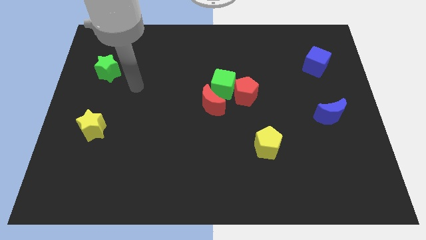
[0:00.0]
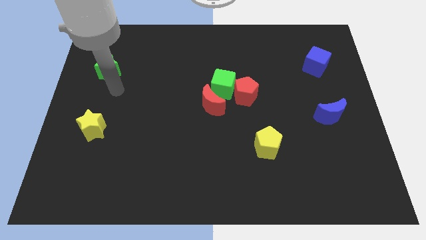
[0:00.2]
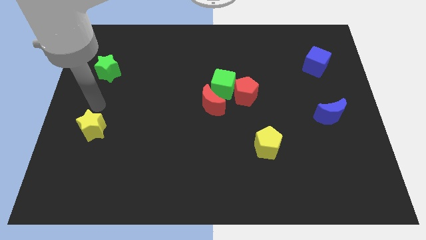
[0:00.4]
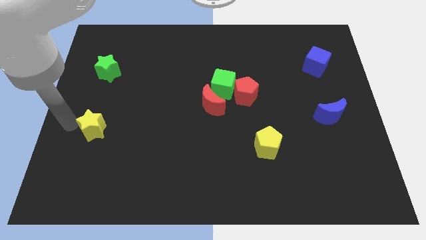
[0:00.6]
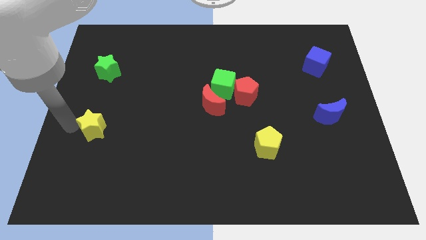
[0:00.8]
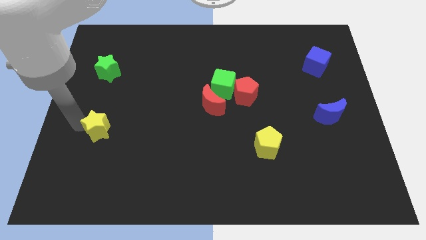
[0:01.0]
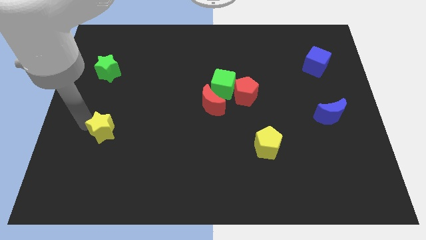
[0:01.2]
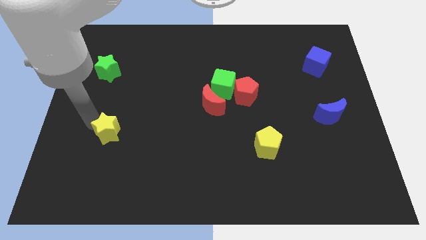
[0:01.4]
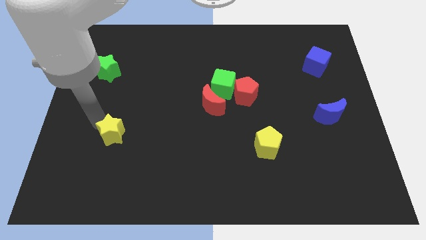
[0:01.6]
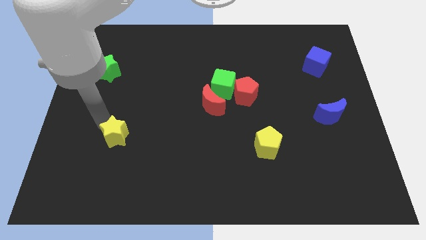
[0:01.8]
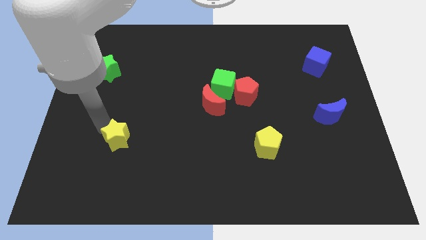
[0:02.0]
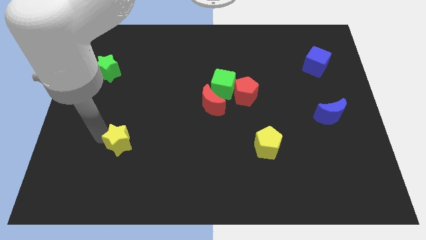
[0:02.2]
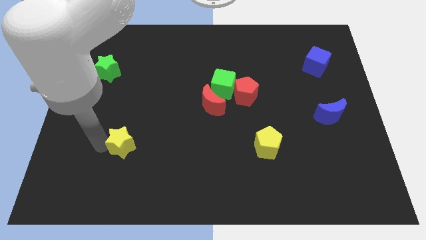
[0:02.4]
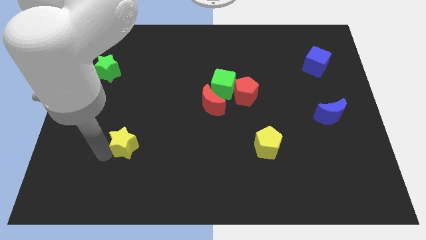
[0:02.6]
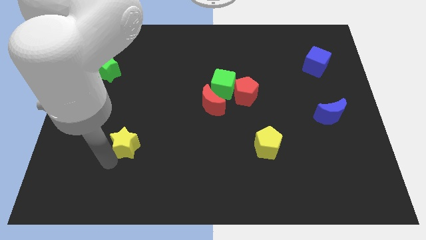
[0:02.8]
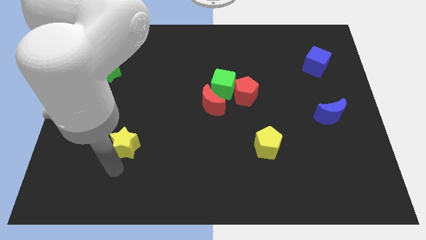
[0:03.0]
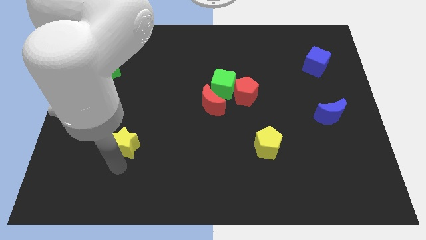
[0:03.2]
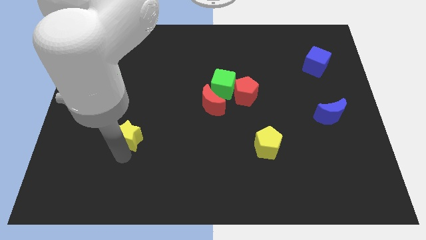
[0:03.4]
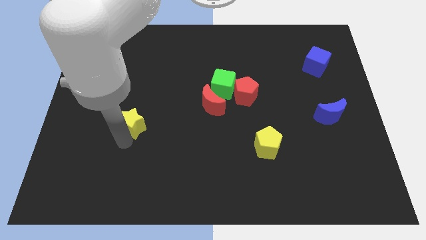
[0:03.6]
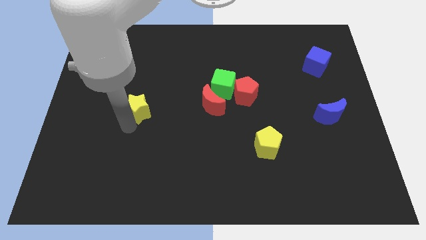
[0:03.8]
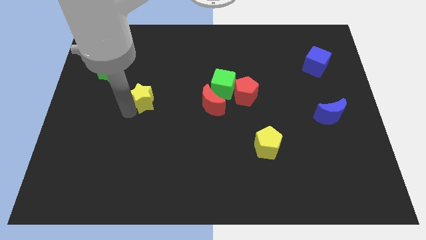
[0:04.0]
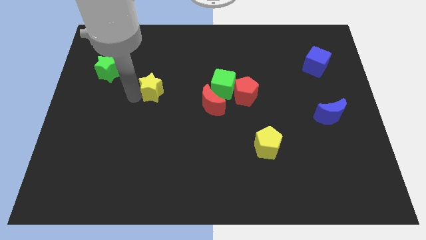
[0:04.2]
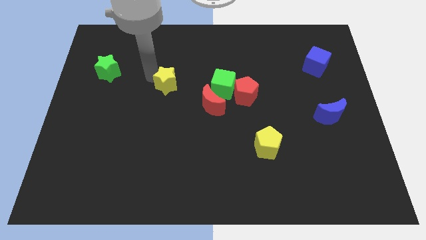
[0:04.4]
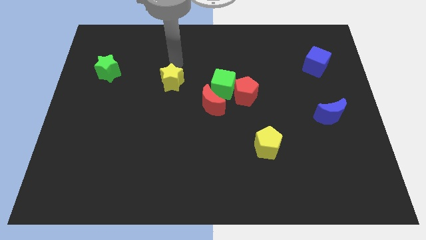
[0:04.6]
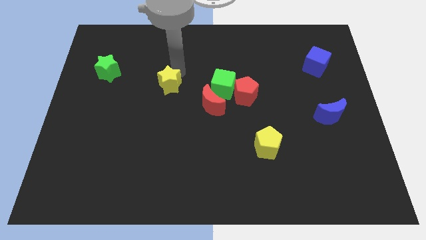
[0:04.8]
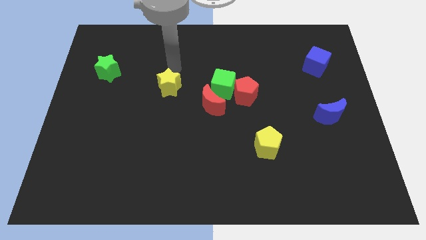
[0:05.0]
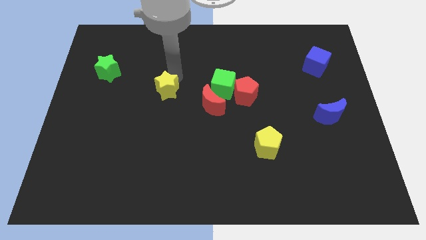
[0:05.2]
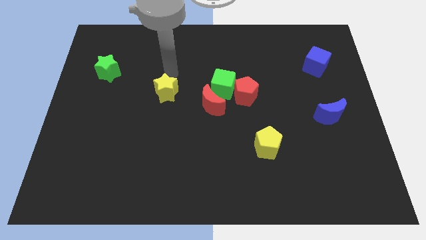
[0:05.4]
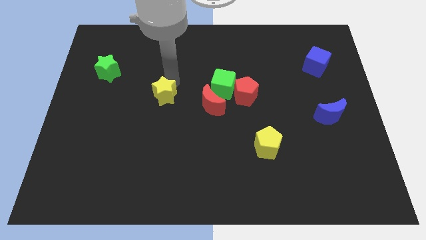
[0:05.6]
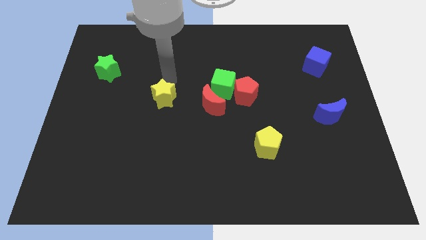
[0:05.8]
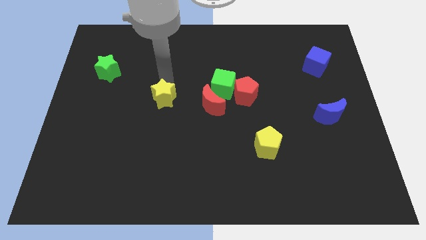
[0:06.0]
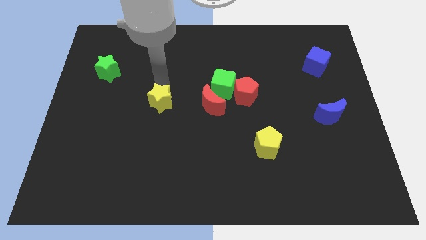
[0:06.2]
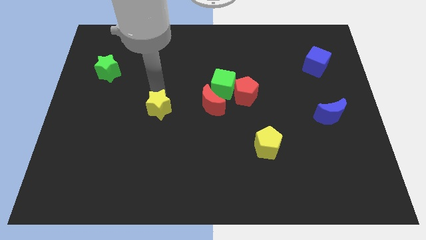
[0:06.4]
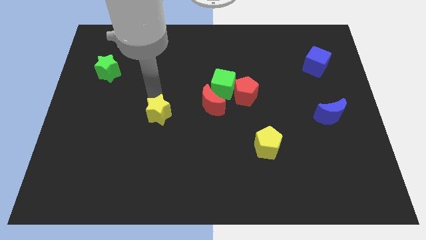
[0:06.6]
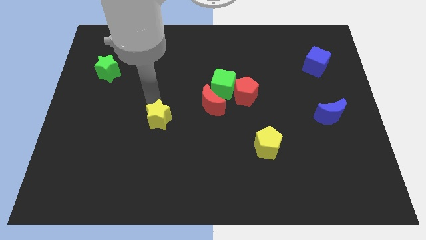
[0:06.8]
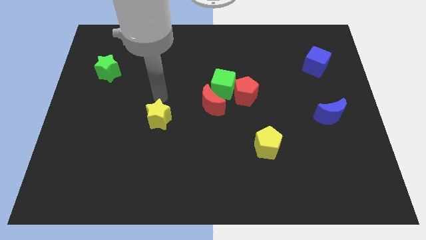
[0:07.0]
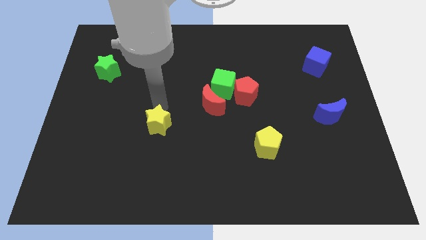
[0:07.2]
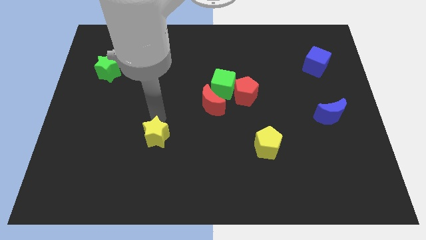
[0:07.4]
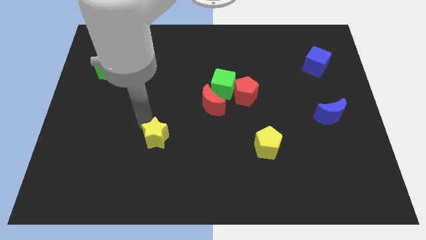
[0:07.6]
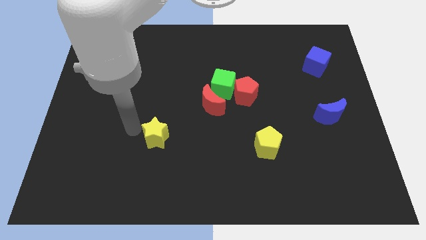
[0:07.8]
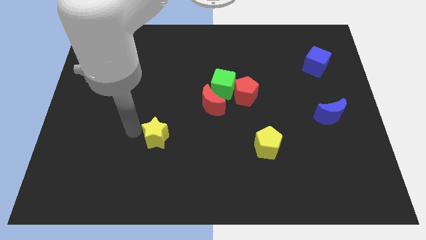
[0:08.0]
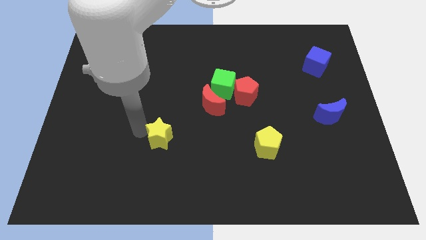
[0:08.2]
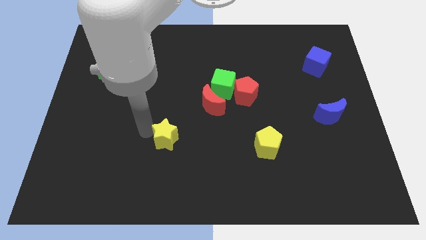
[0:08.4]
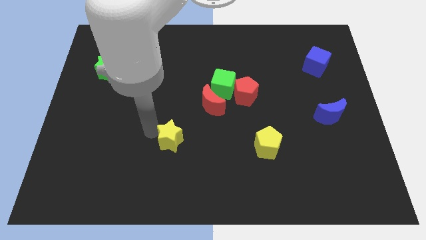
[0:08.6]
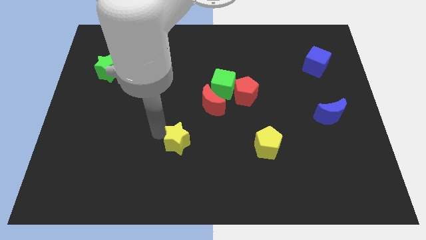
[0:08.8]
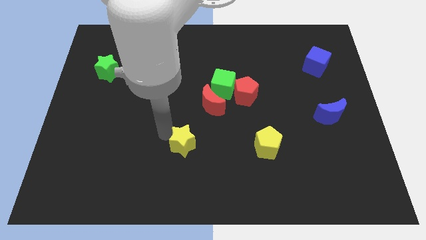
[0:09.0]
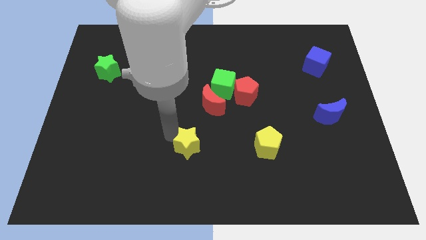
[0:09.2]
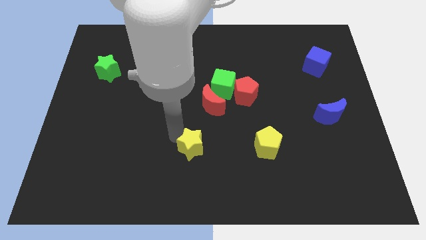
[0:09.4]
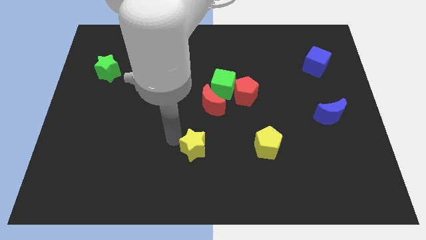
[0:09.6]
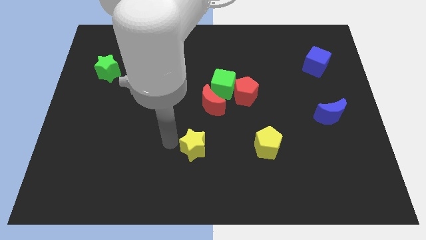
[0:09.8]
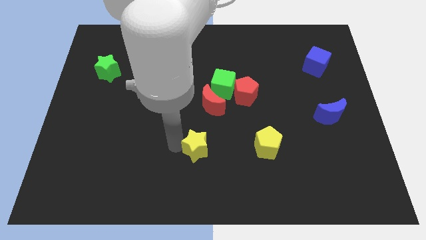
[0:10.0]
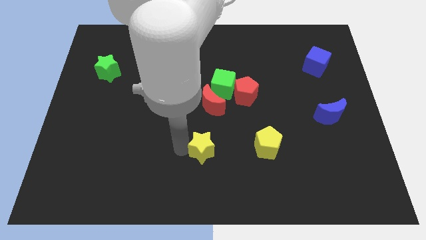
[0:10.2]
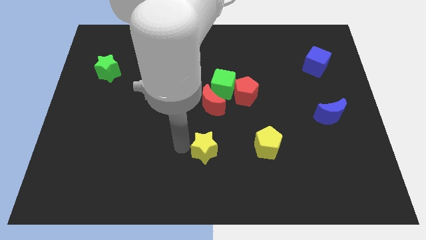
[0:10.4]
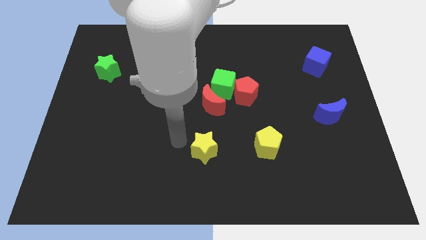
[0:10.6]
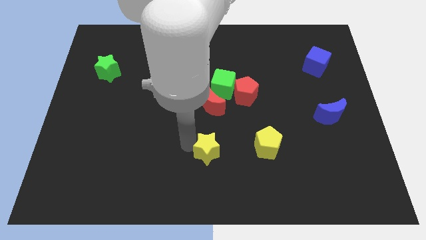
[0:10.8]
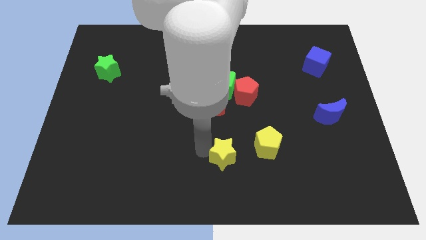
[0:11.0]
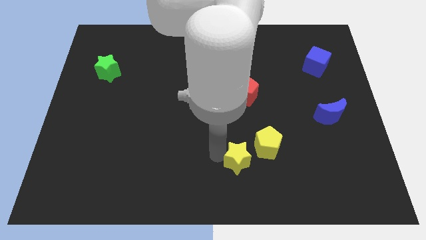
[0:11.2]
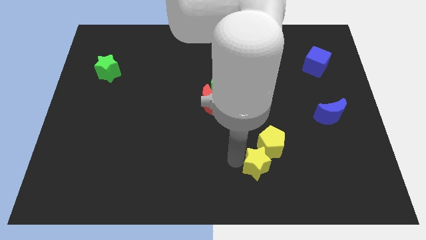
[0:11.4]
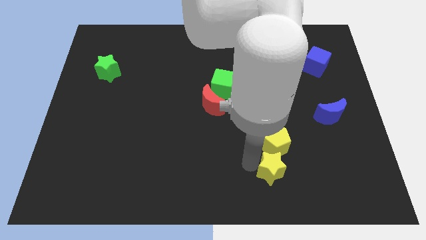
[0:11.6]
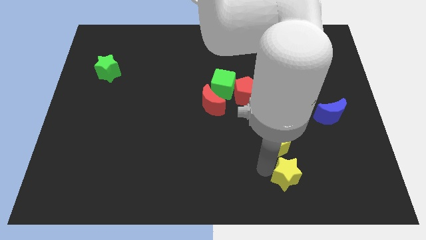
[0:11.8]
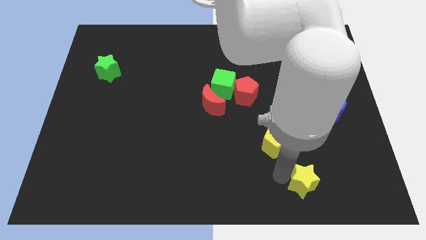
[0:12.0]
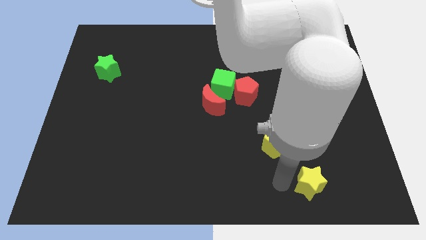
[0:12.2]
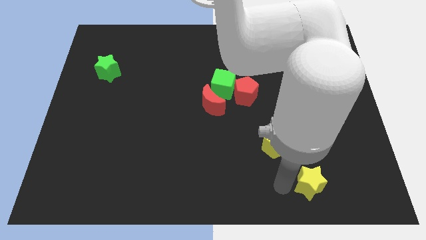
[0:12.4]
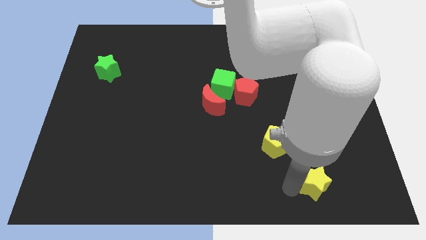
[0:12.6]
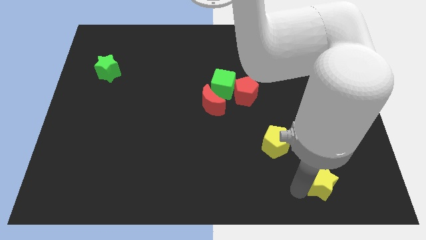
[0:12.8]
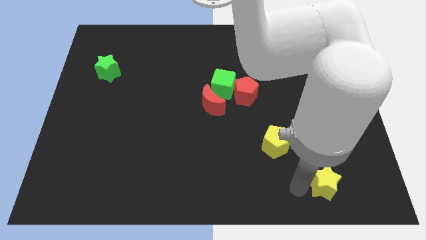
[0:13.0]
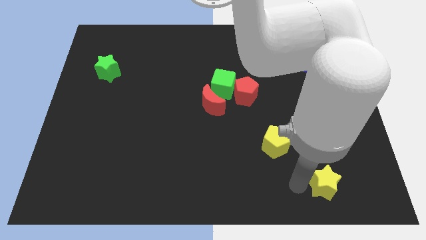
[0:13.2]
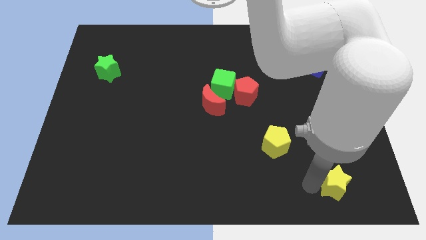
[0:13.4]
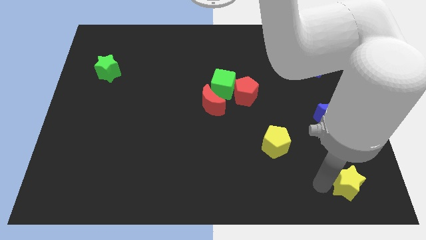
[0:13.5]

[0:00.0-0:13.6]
slide the yellow star to the bottom right corner
